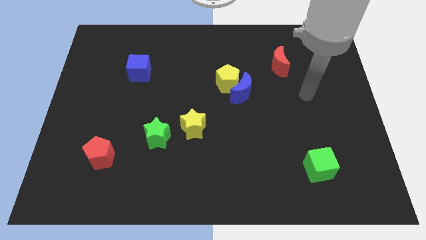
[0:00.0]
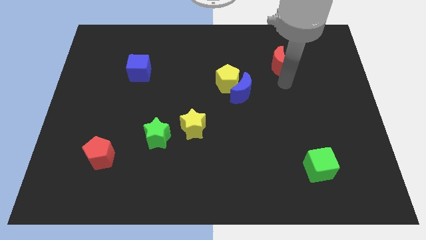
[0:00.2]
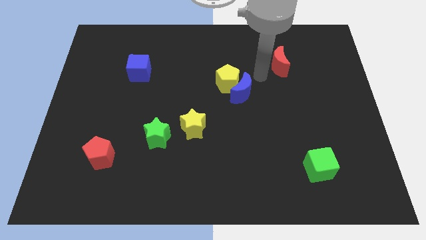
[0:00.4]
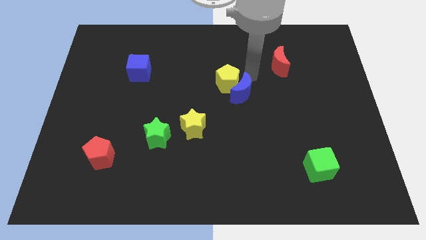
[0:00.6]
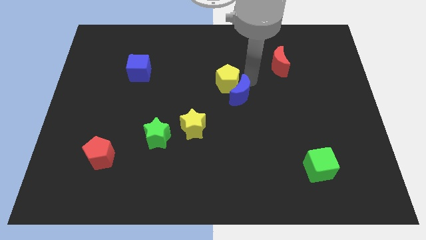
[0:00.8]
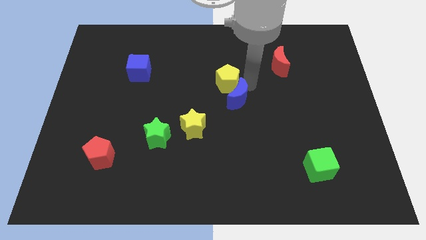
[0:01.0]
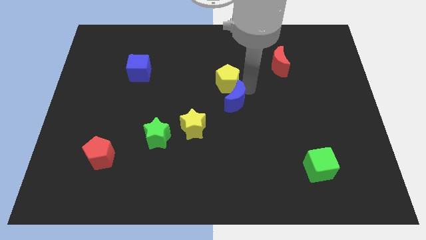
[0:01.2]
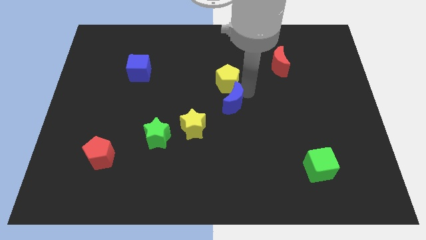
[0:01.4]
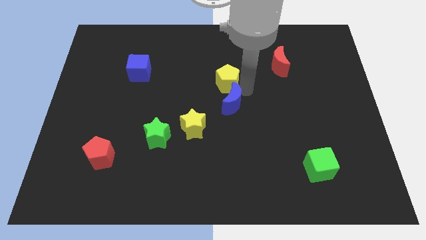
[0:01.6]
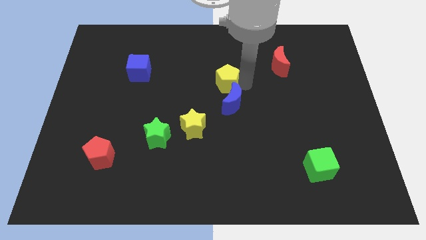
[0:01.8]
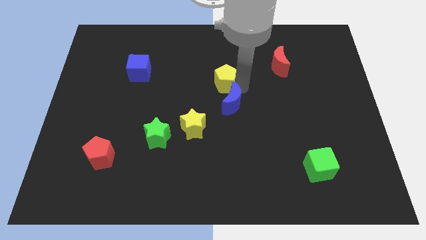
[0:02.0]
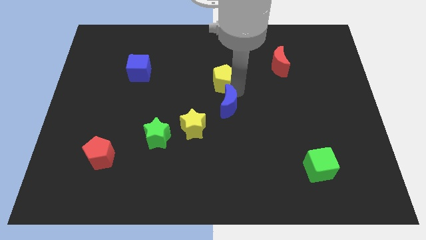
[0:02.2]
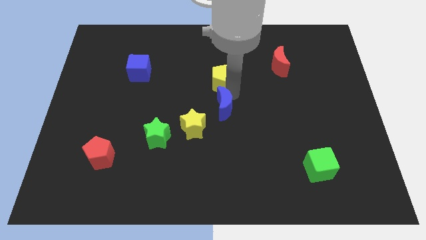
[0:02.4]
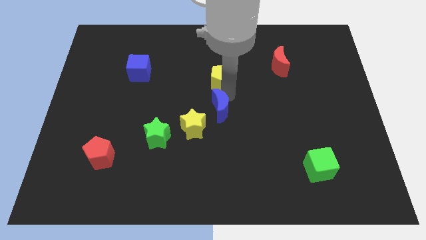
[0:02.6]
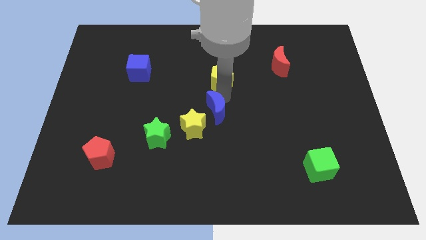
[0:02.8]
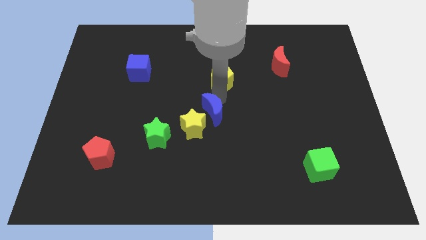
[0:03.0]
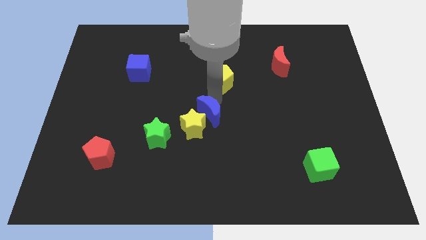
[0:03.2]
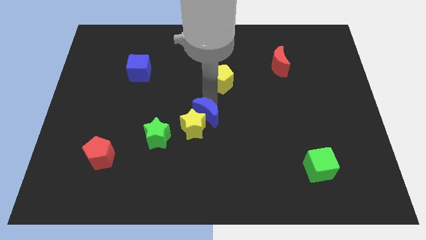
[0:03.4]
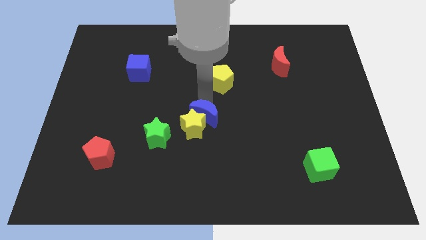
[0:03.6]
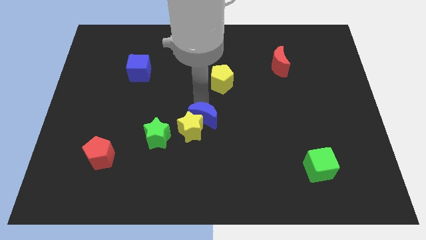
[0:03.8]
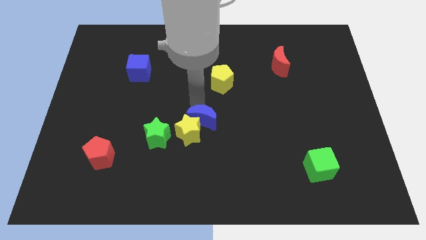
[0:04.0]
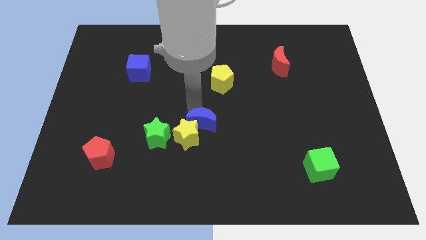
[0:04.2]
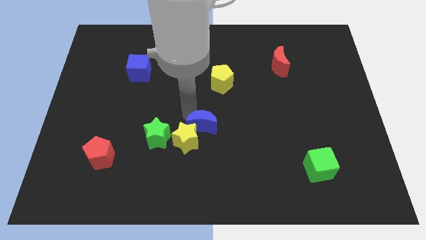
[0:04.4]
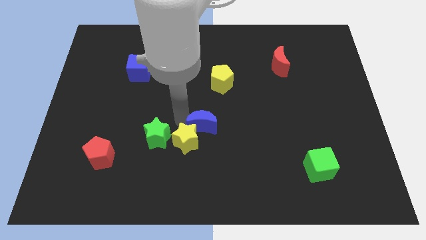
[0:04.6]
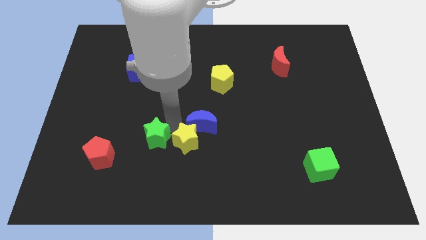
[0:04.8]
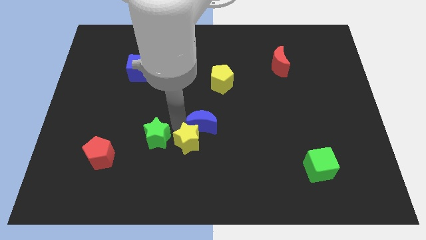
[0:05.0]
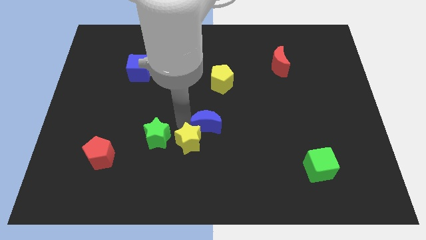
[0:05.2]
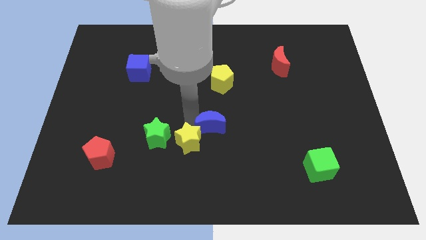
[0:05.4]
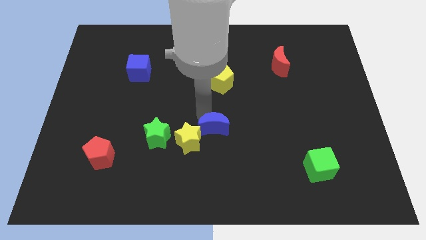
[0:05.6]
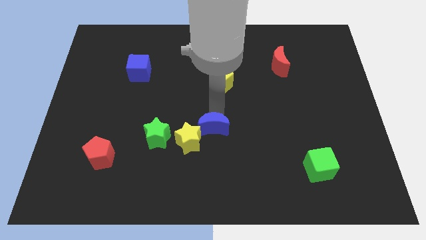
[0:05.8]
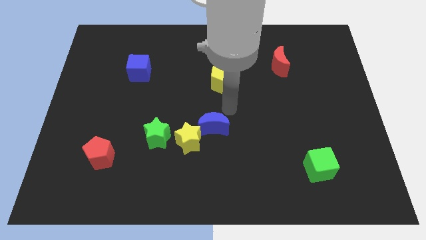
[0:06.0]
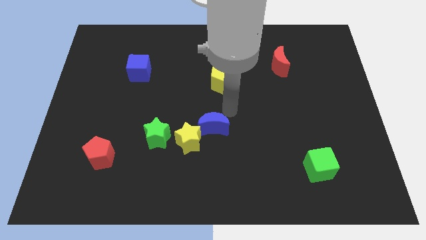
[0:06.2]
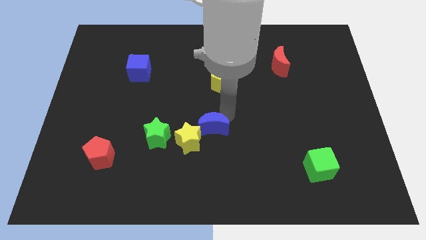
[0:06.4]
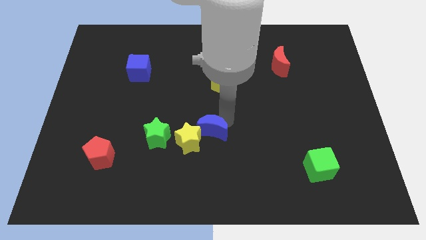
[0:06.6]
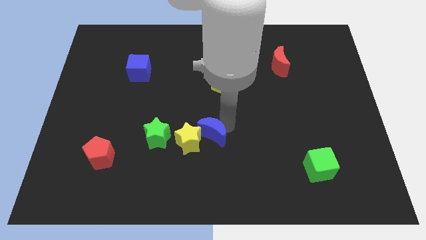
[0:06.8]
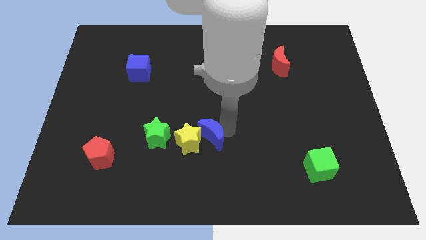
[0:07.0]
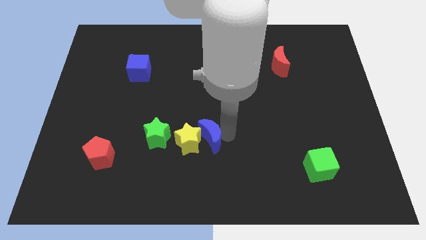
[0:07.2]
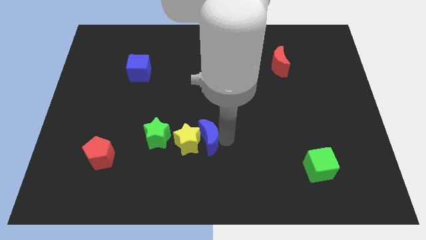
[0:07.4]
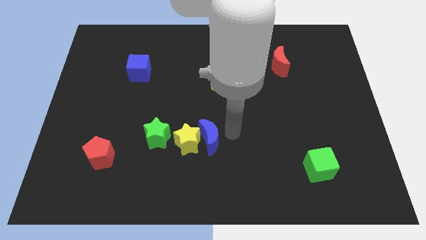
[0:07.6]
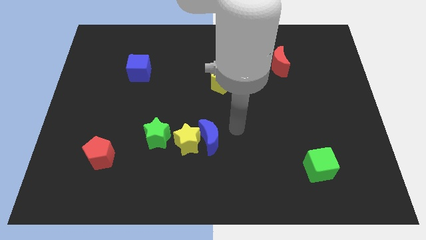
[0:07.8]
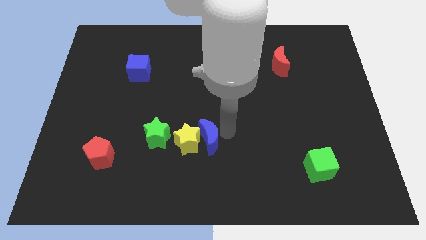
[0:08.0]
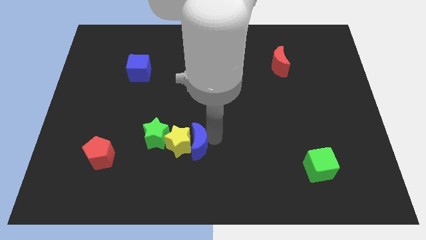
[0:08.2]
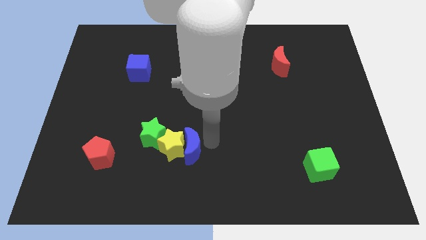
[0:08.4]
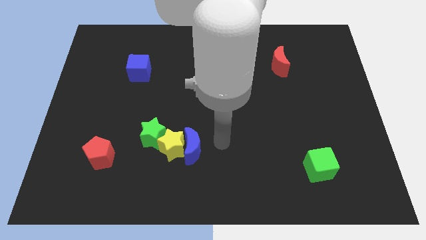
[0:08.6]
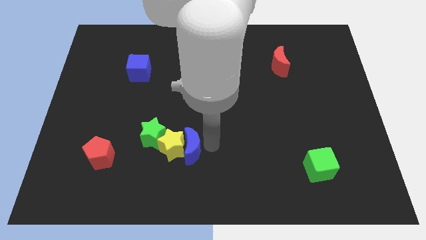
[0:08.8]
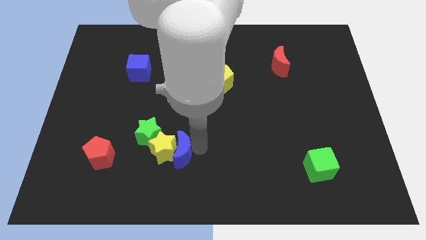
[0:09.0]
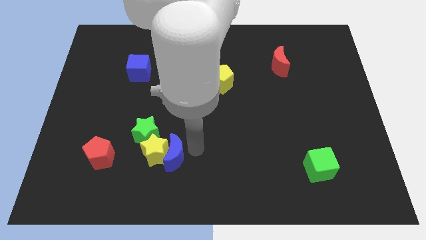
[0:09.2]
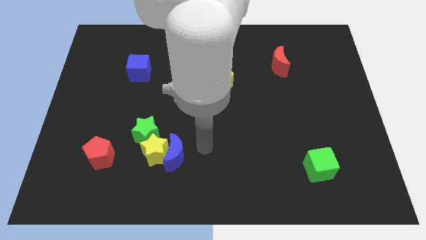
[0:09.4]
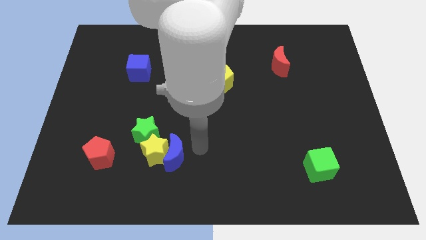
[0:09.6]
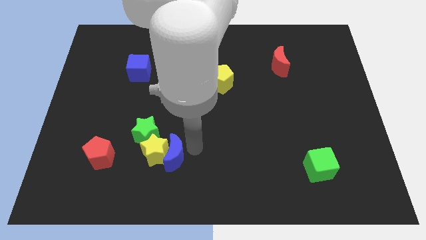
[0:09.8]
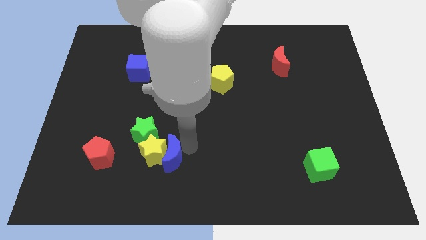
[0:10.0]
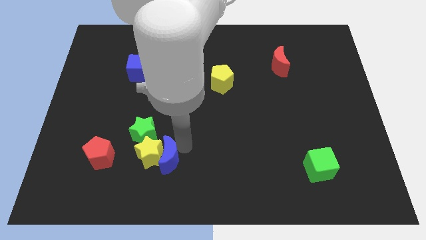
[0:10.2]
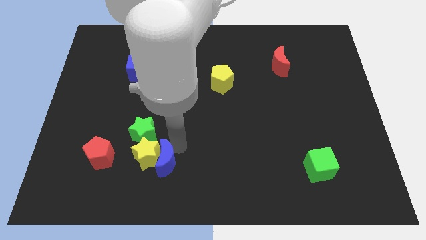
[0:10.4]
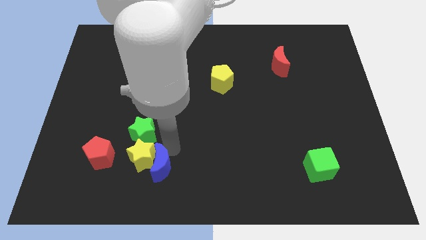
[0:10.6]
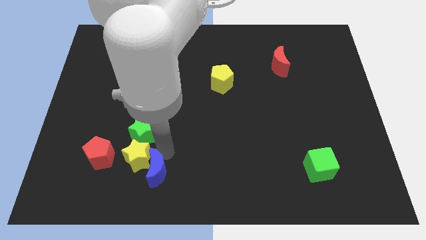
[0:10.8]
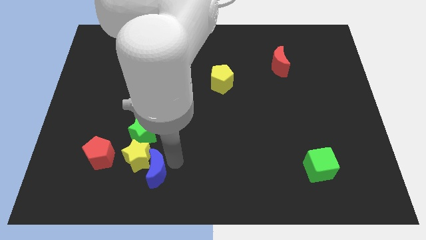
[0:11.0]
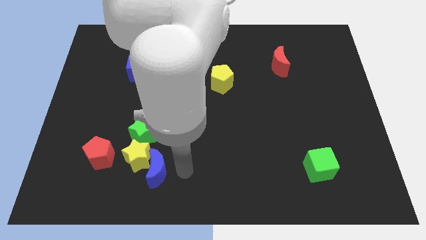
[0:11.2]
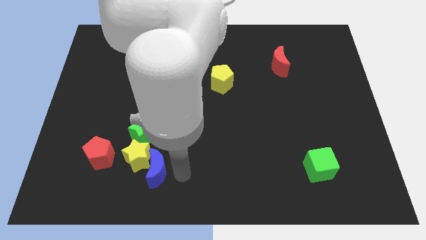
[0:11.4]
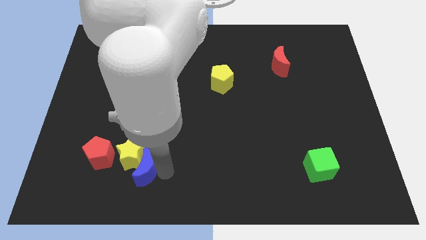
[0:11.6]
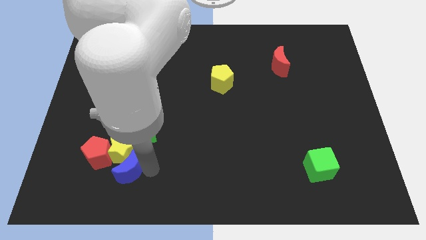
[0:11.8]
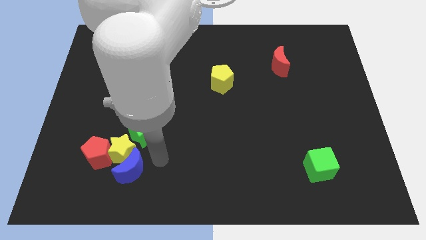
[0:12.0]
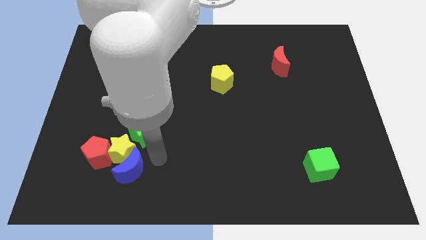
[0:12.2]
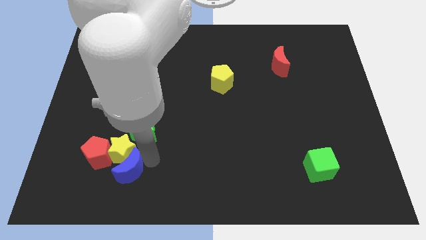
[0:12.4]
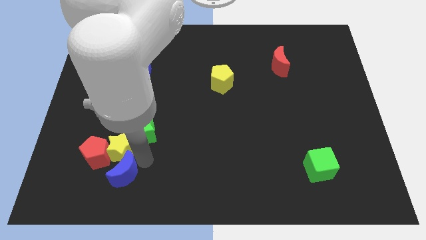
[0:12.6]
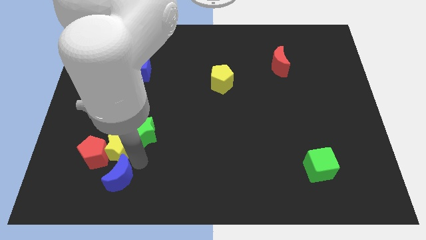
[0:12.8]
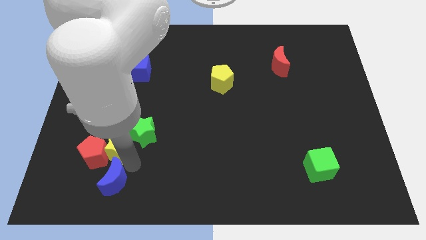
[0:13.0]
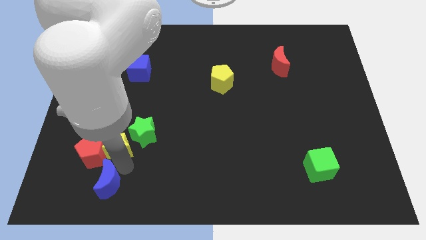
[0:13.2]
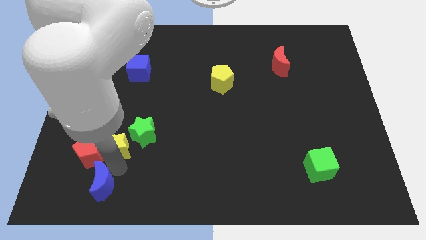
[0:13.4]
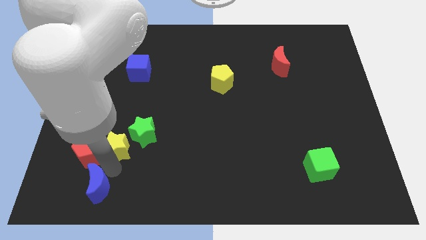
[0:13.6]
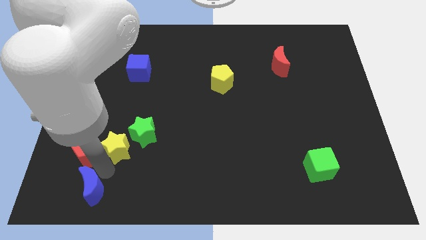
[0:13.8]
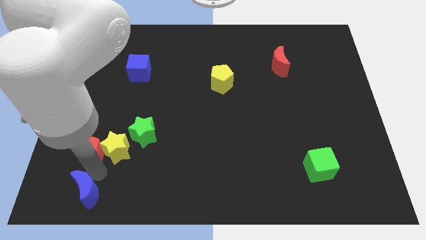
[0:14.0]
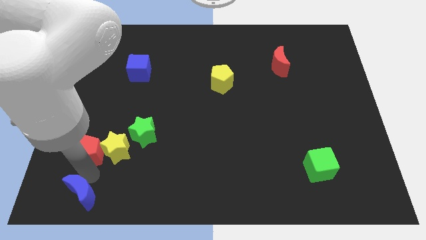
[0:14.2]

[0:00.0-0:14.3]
move the blue moon to the bottom left corner

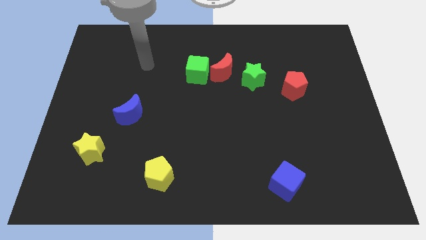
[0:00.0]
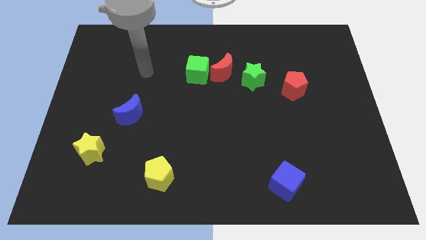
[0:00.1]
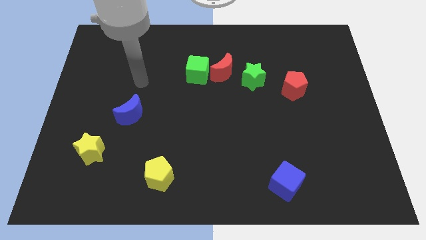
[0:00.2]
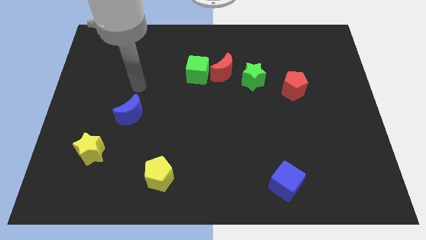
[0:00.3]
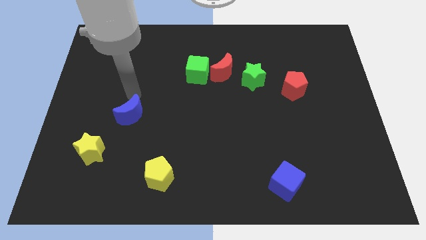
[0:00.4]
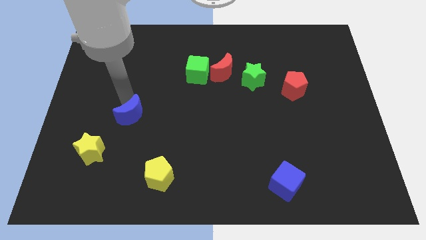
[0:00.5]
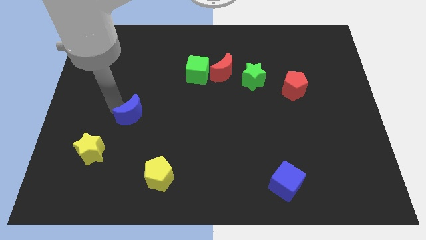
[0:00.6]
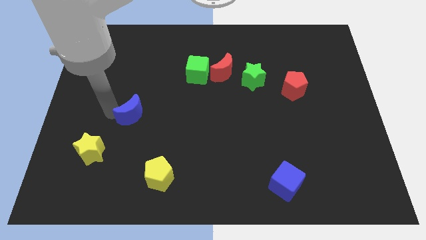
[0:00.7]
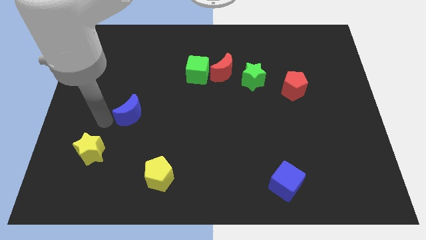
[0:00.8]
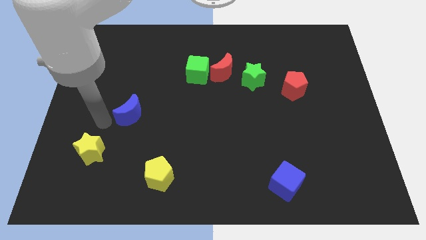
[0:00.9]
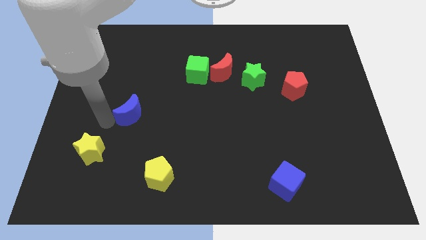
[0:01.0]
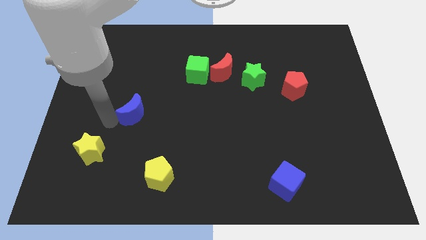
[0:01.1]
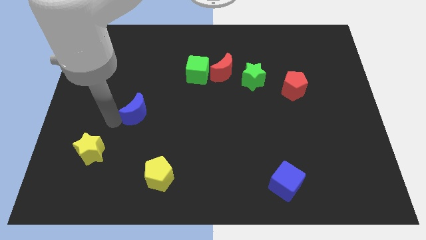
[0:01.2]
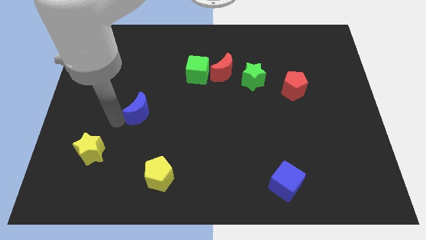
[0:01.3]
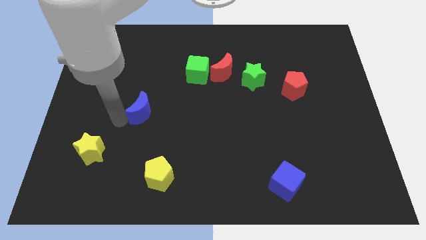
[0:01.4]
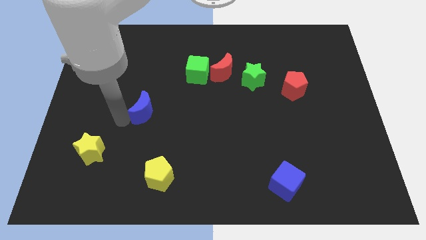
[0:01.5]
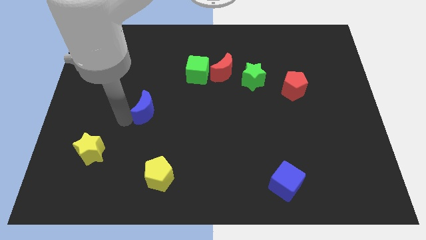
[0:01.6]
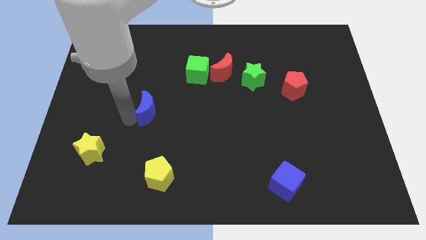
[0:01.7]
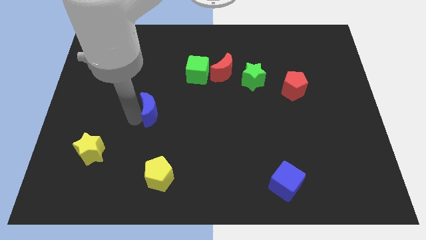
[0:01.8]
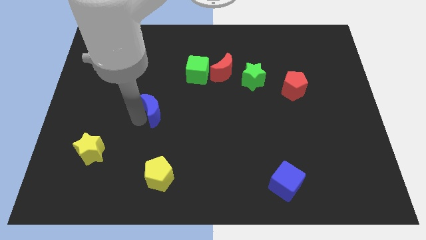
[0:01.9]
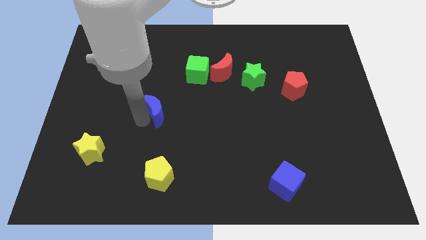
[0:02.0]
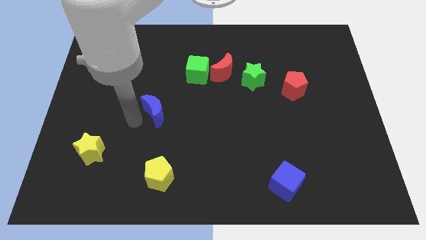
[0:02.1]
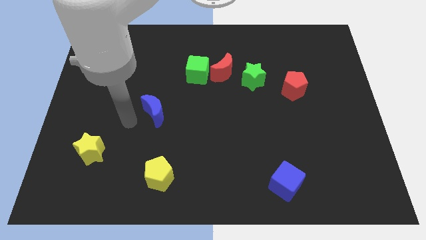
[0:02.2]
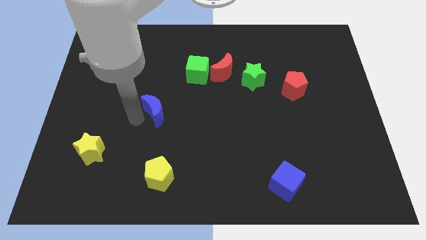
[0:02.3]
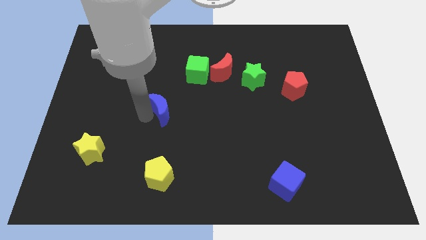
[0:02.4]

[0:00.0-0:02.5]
slide the blue moon to the center of the board
